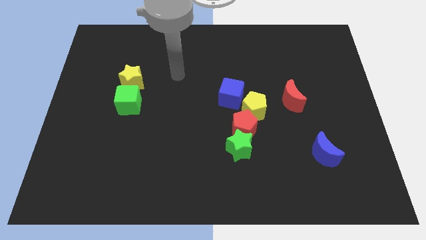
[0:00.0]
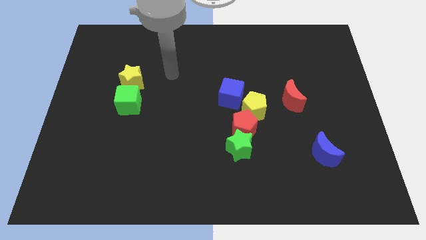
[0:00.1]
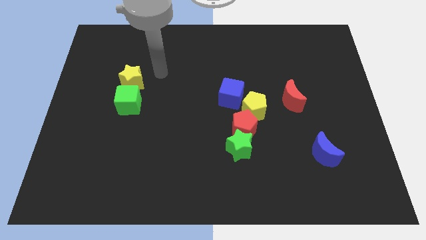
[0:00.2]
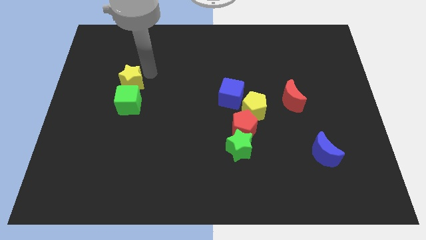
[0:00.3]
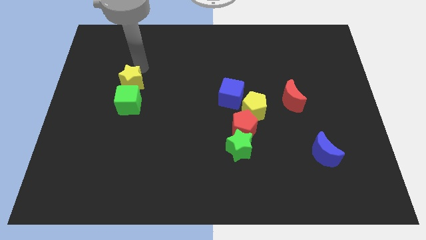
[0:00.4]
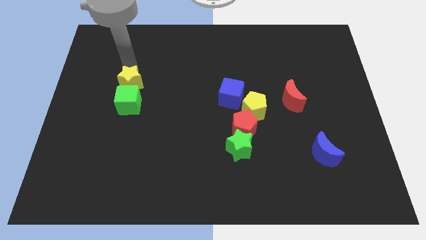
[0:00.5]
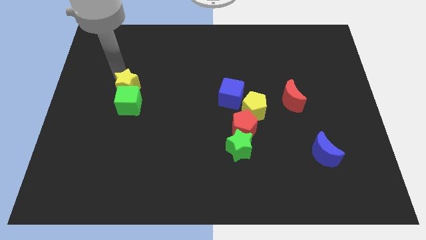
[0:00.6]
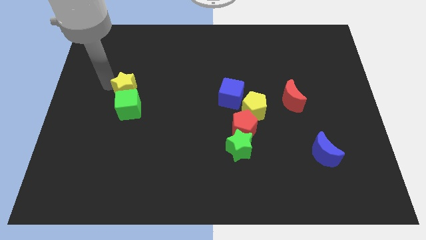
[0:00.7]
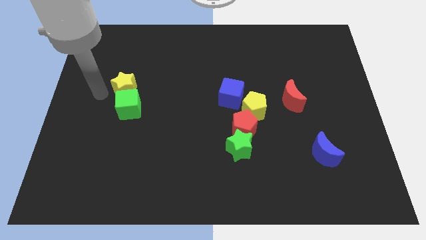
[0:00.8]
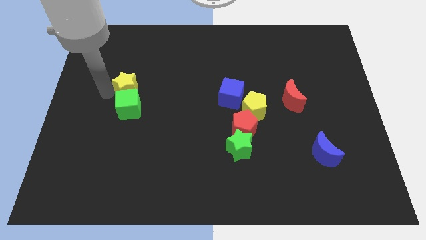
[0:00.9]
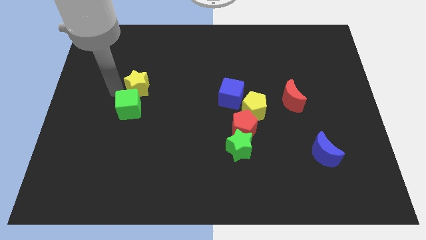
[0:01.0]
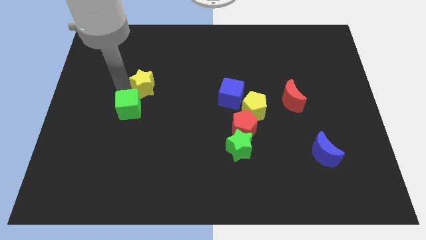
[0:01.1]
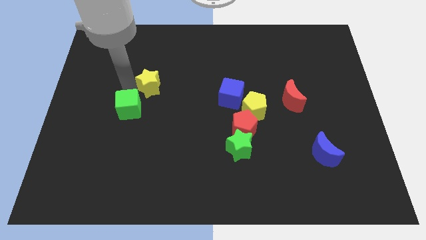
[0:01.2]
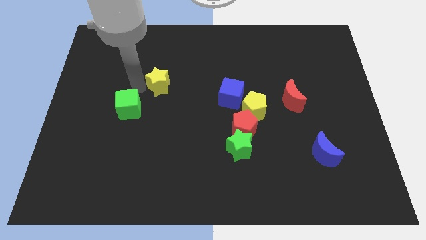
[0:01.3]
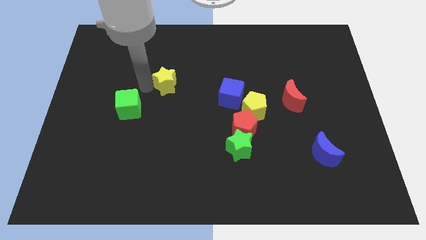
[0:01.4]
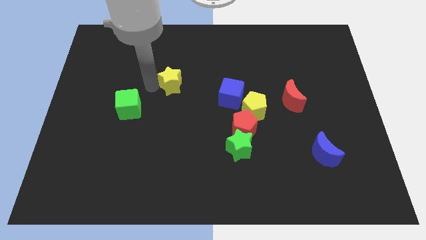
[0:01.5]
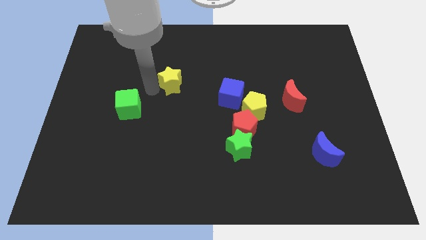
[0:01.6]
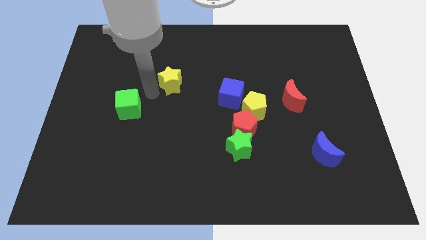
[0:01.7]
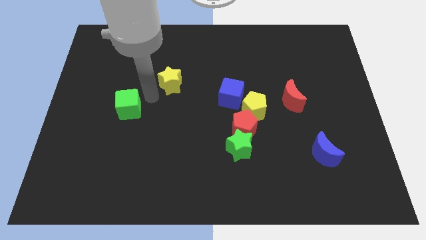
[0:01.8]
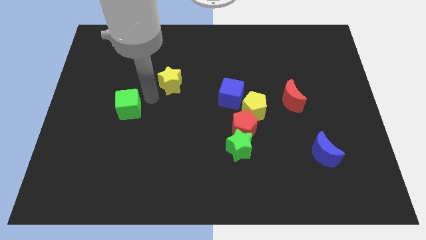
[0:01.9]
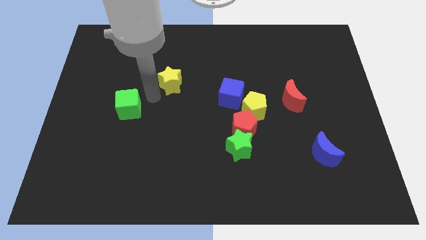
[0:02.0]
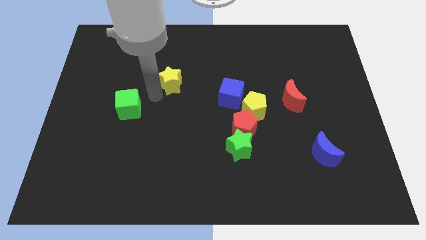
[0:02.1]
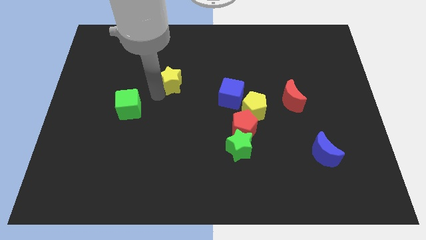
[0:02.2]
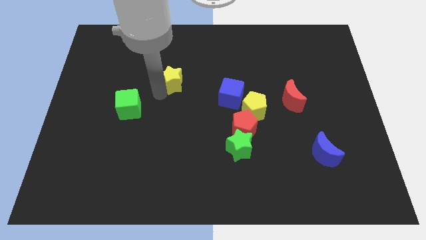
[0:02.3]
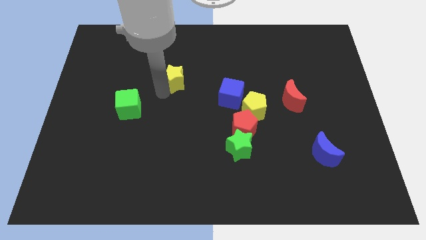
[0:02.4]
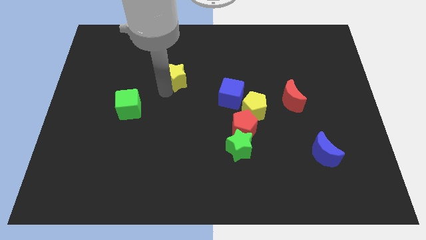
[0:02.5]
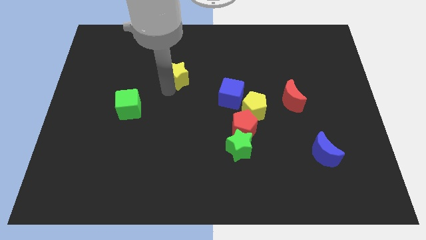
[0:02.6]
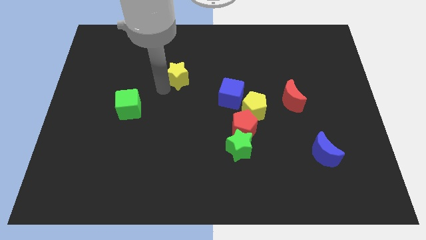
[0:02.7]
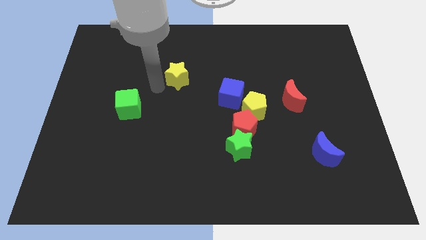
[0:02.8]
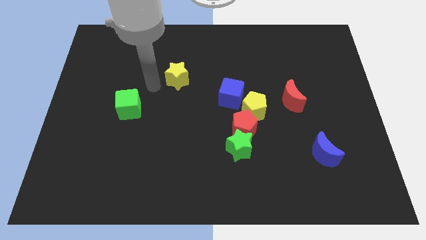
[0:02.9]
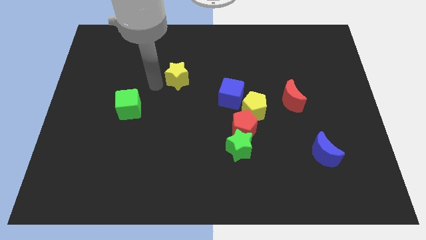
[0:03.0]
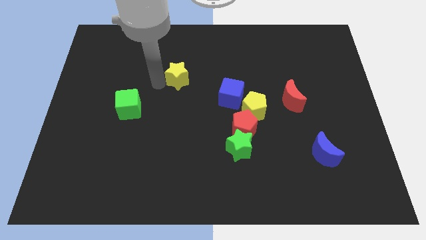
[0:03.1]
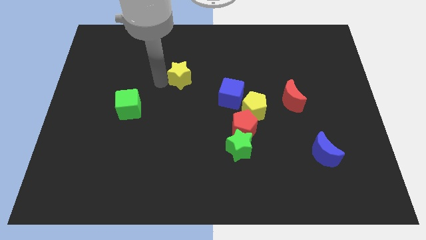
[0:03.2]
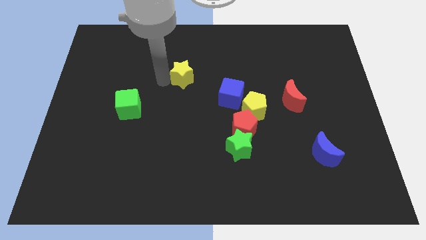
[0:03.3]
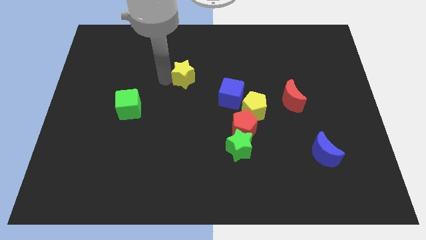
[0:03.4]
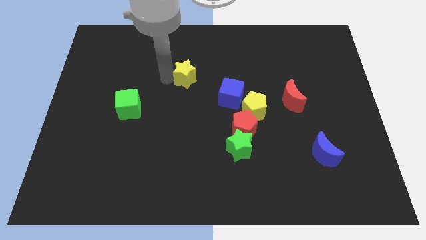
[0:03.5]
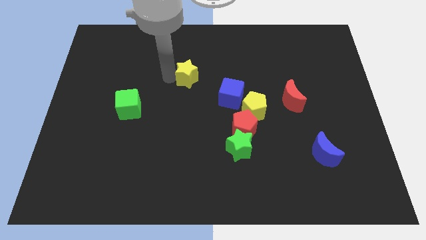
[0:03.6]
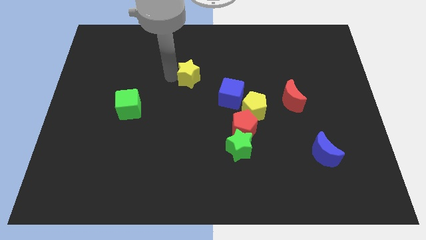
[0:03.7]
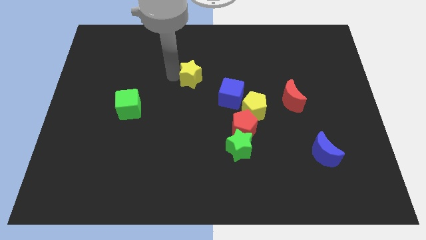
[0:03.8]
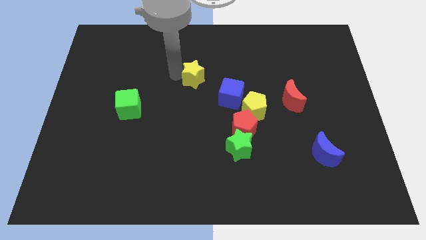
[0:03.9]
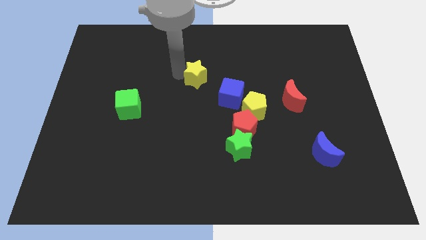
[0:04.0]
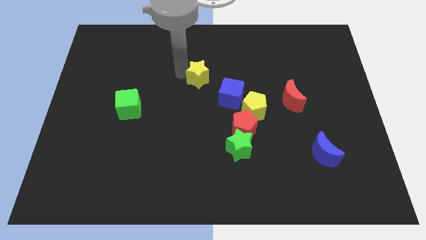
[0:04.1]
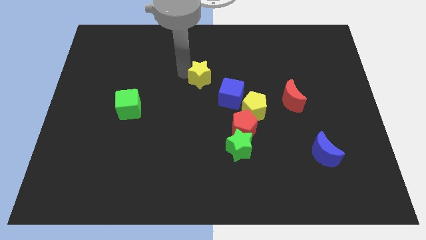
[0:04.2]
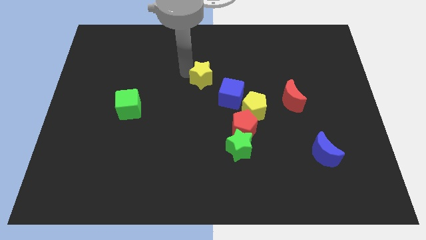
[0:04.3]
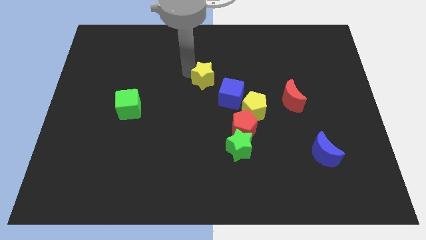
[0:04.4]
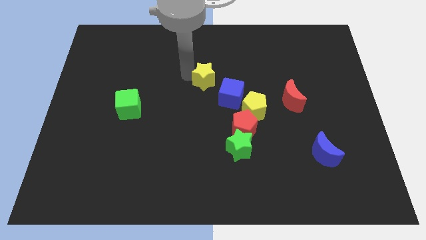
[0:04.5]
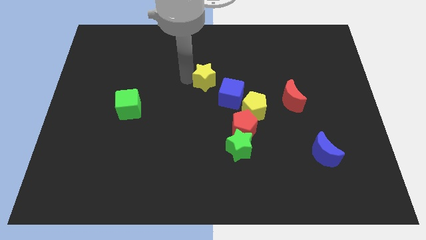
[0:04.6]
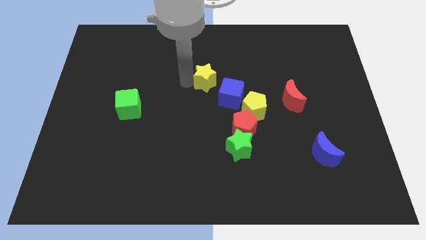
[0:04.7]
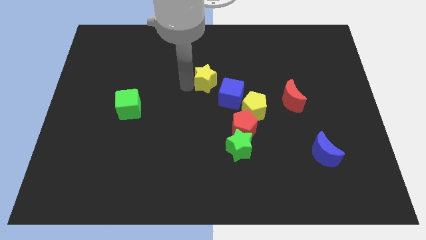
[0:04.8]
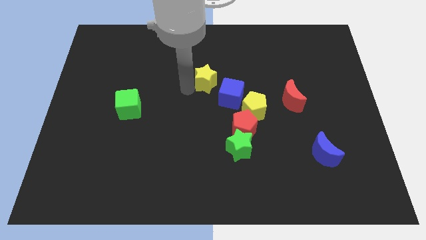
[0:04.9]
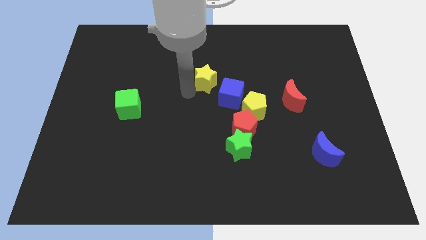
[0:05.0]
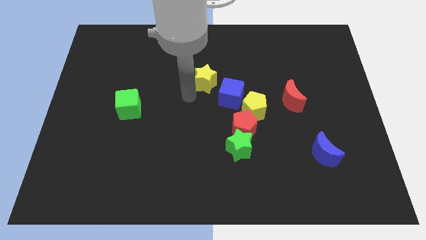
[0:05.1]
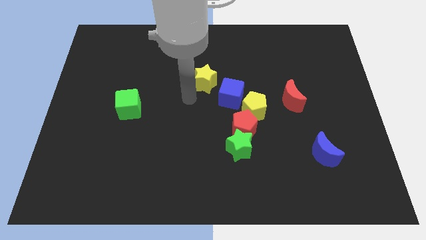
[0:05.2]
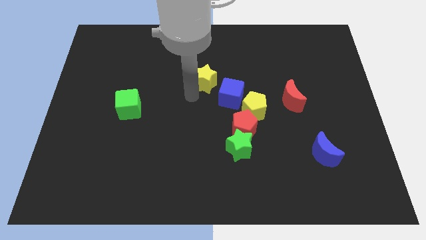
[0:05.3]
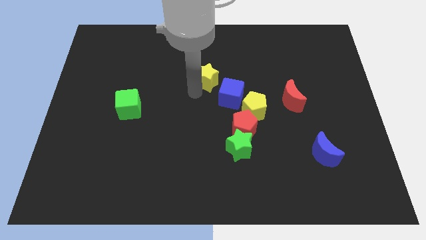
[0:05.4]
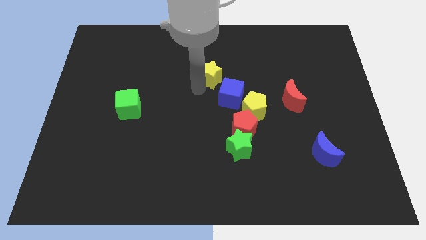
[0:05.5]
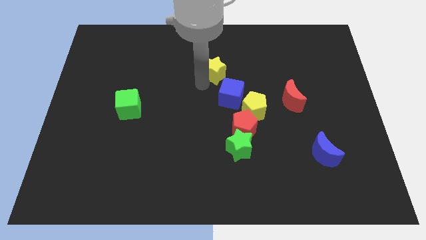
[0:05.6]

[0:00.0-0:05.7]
push the yellow star above the blue cube

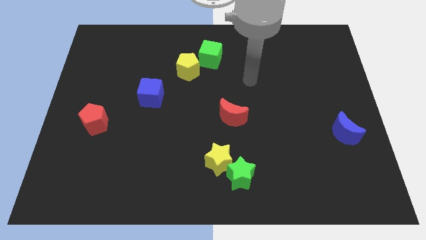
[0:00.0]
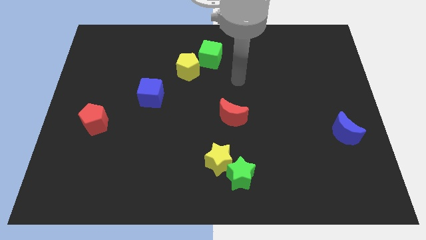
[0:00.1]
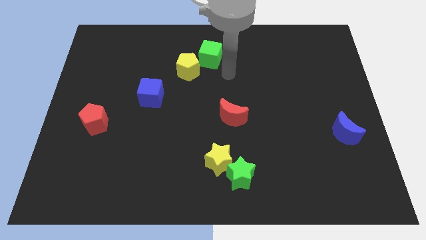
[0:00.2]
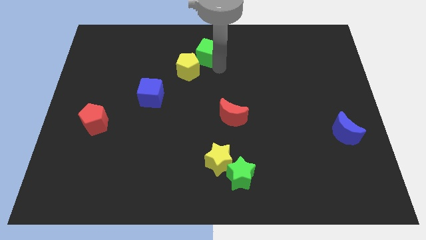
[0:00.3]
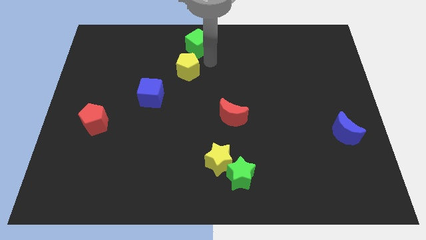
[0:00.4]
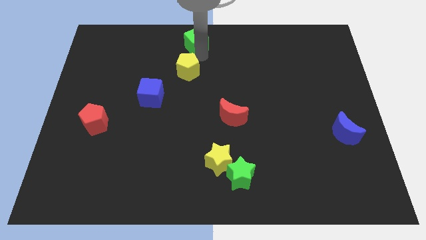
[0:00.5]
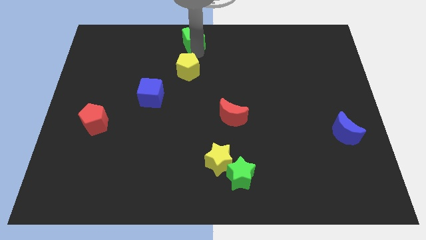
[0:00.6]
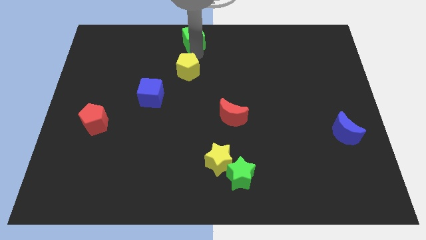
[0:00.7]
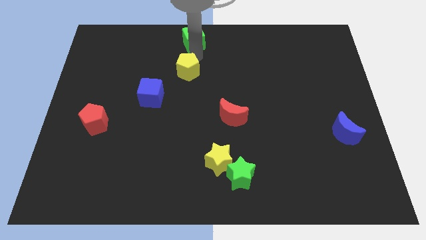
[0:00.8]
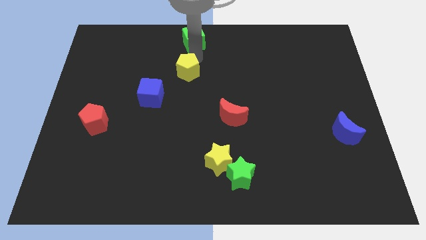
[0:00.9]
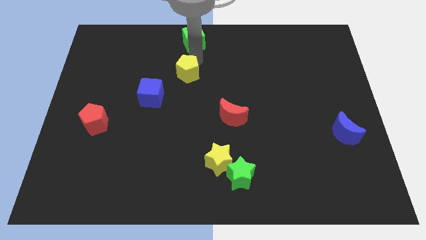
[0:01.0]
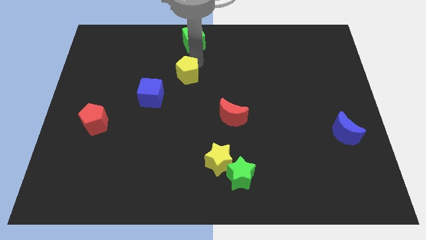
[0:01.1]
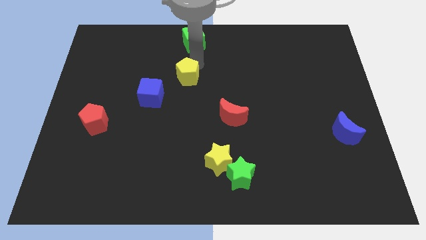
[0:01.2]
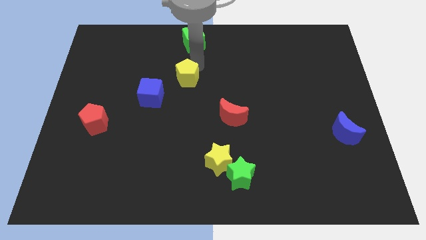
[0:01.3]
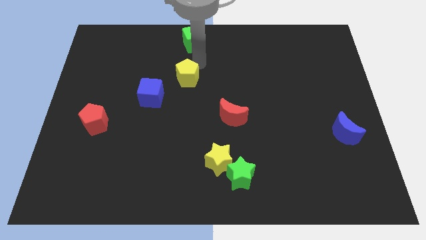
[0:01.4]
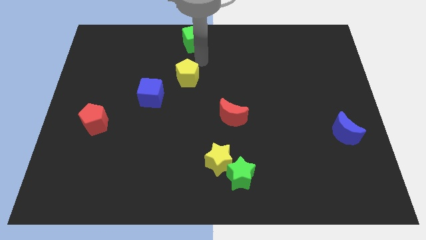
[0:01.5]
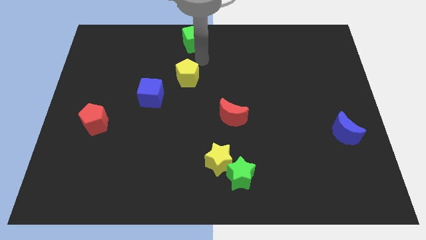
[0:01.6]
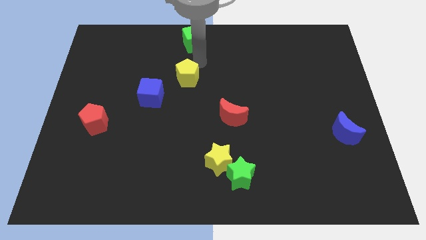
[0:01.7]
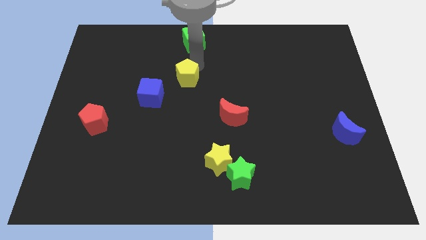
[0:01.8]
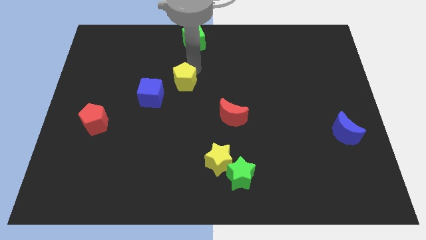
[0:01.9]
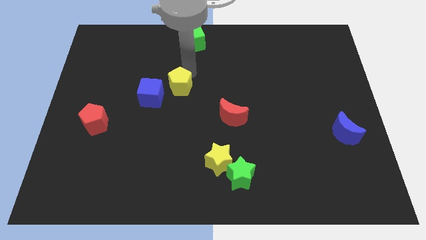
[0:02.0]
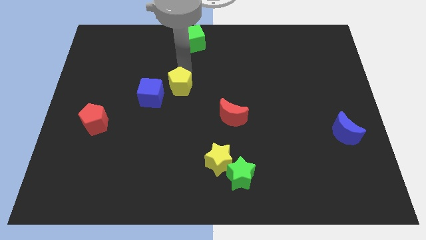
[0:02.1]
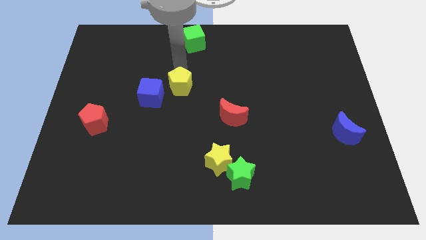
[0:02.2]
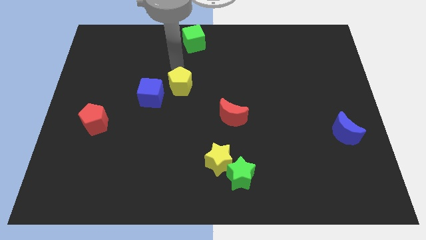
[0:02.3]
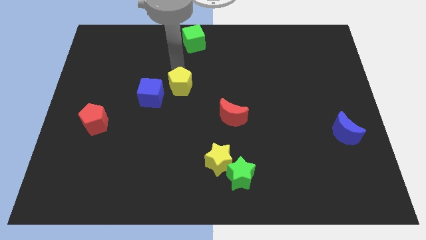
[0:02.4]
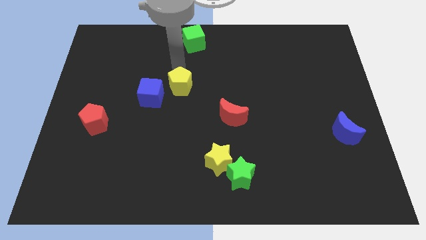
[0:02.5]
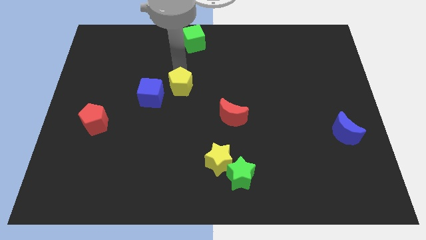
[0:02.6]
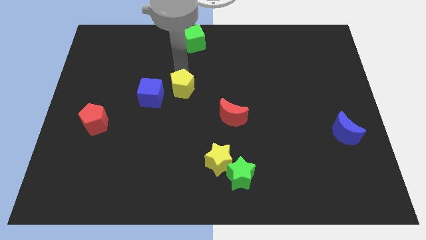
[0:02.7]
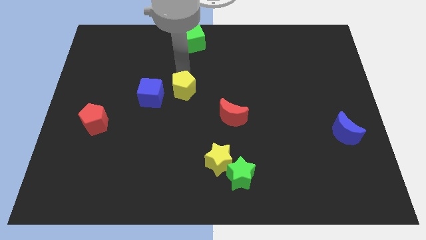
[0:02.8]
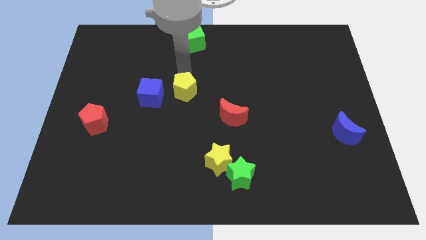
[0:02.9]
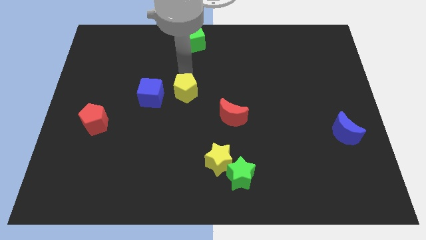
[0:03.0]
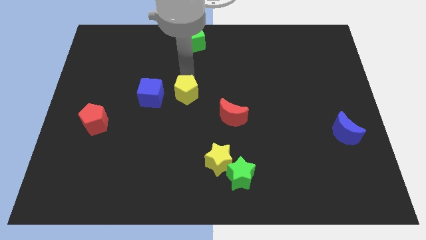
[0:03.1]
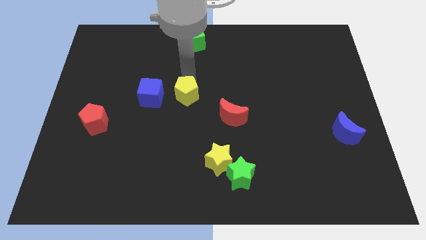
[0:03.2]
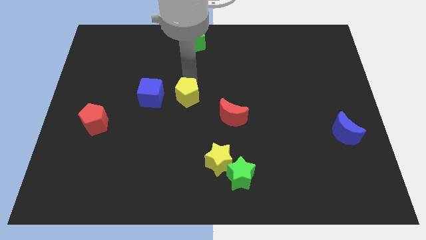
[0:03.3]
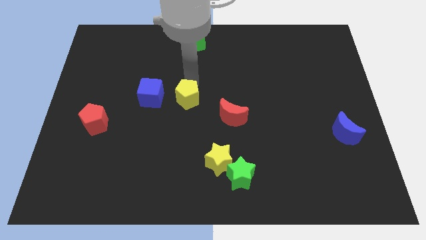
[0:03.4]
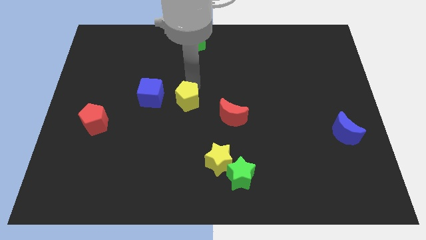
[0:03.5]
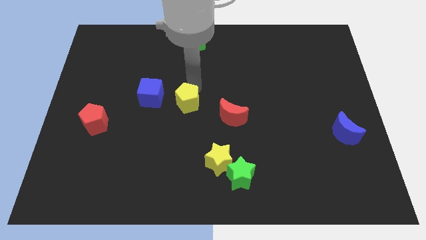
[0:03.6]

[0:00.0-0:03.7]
put the yellow pentagon just left of the red moon
